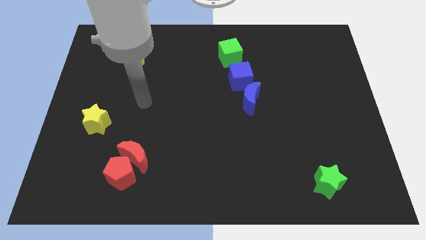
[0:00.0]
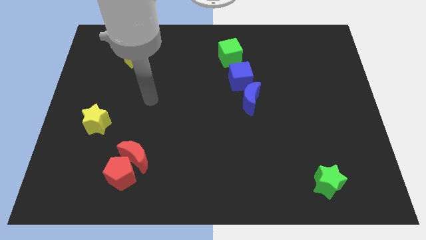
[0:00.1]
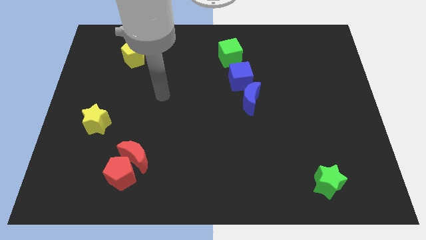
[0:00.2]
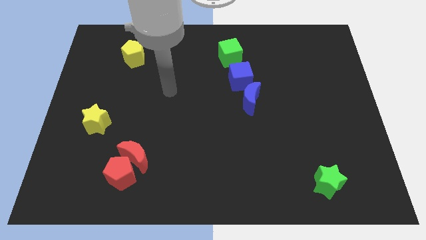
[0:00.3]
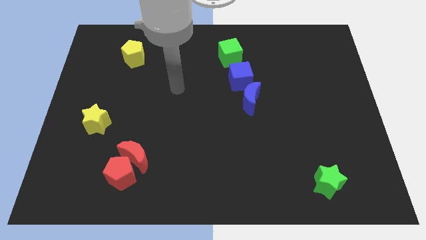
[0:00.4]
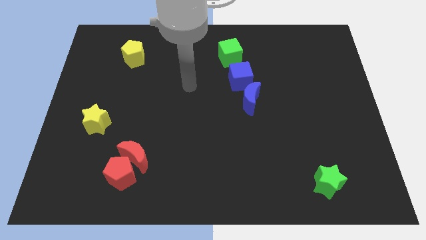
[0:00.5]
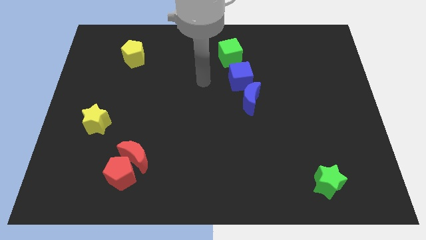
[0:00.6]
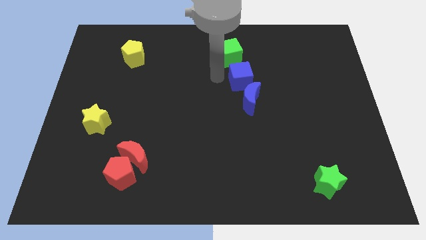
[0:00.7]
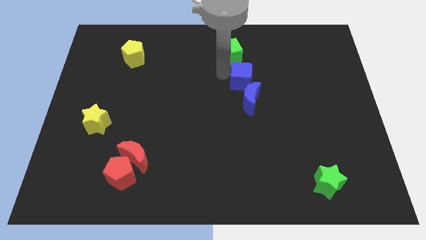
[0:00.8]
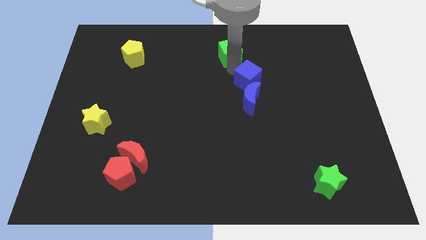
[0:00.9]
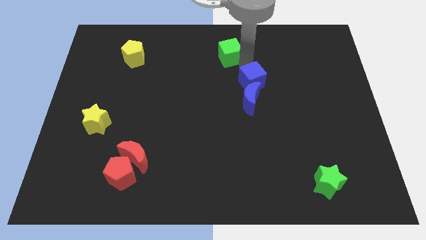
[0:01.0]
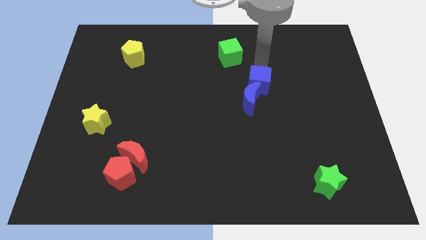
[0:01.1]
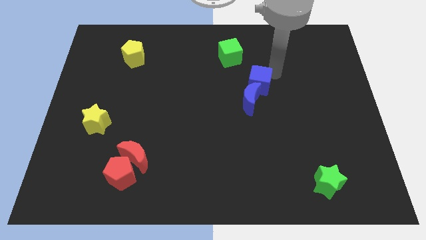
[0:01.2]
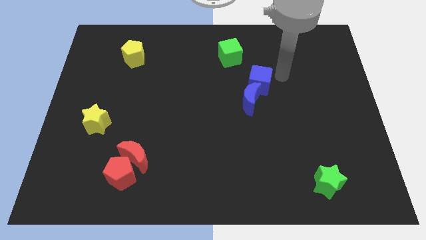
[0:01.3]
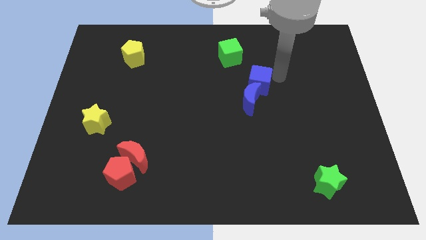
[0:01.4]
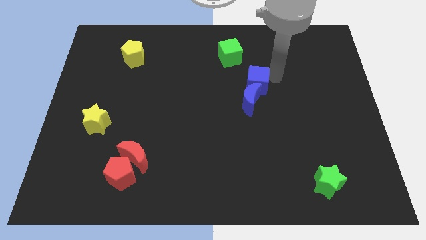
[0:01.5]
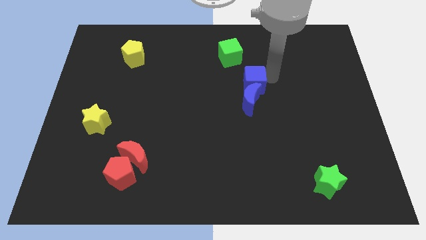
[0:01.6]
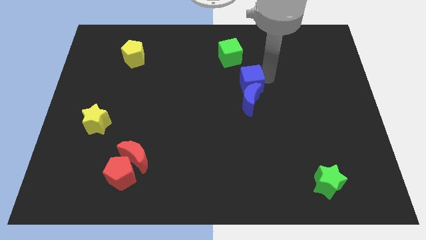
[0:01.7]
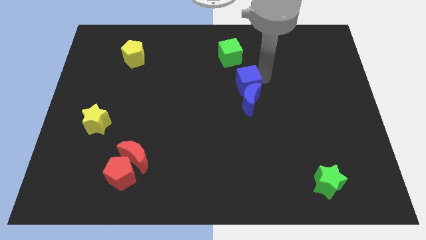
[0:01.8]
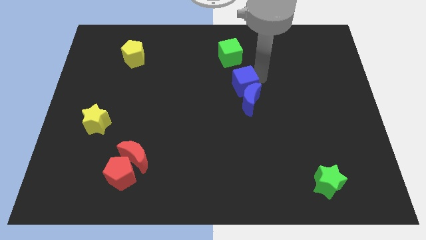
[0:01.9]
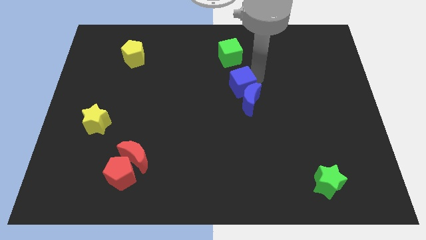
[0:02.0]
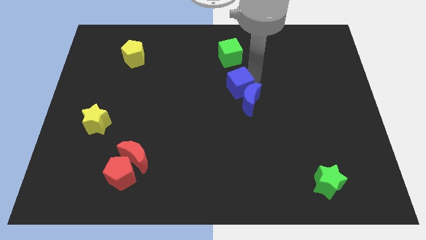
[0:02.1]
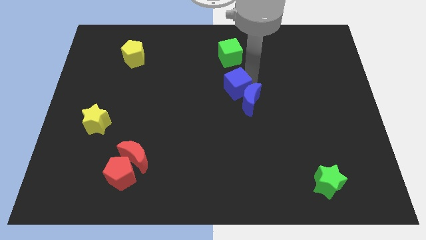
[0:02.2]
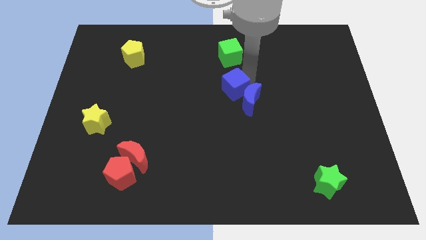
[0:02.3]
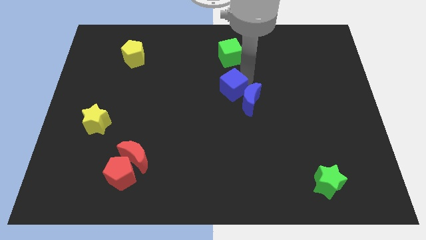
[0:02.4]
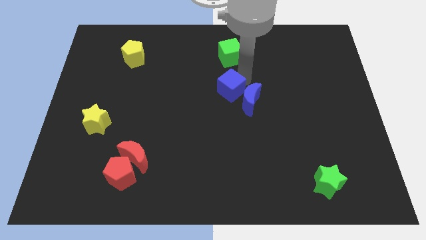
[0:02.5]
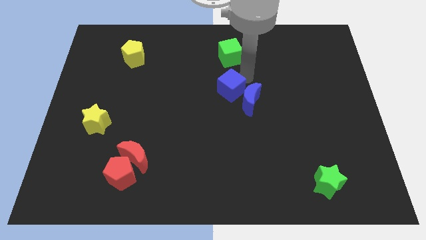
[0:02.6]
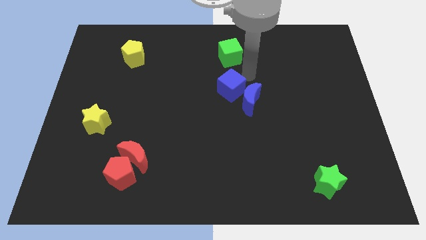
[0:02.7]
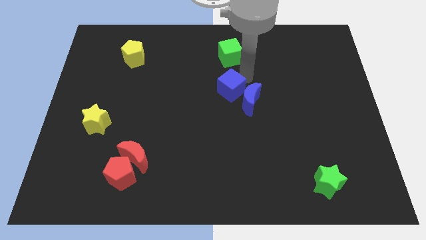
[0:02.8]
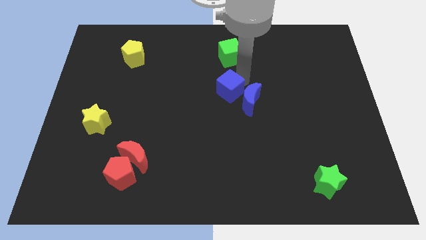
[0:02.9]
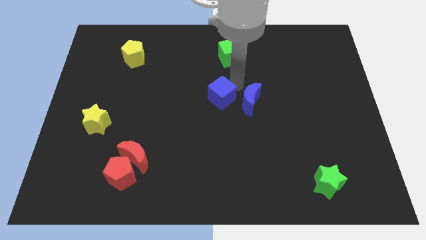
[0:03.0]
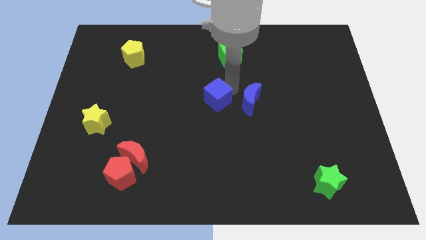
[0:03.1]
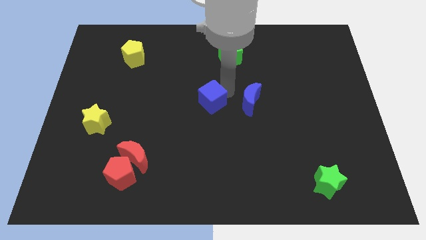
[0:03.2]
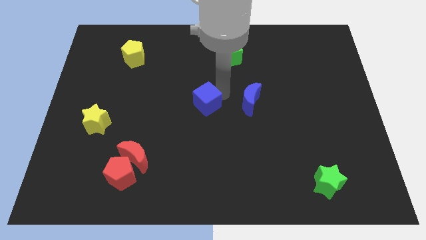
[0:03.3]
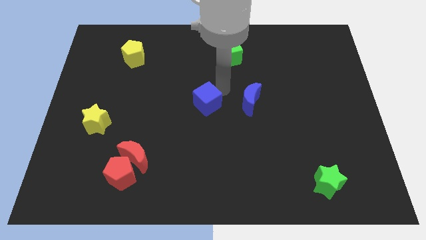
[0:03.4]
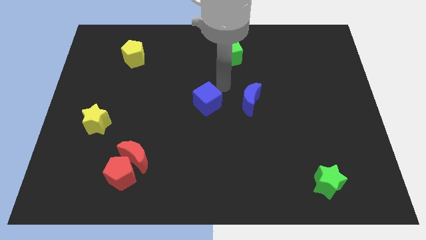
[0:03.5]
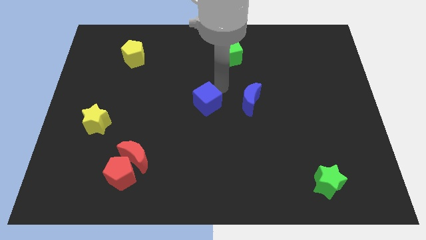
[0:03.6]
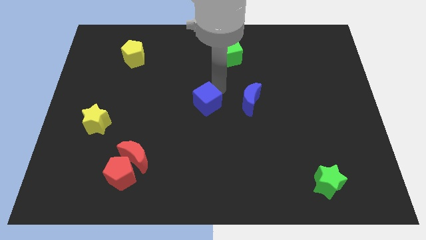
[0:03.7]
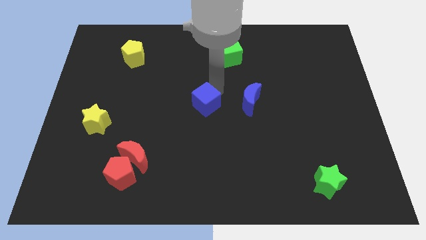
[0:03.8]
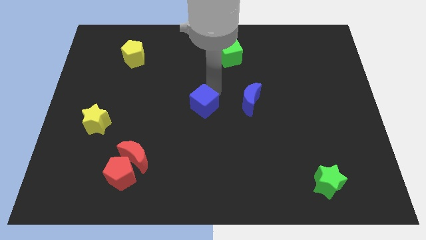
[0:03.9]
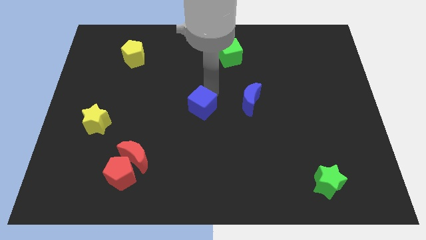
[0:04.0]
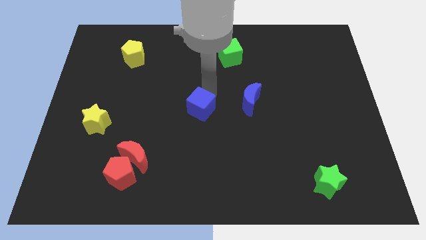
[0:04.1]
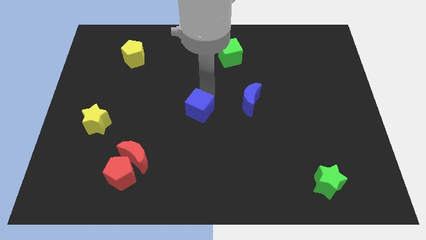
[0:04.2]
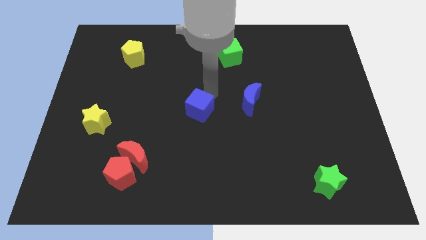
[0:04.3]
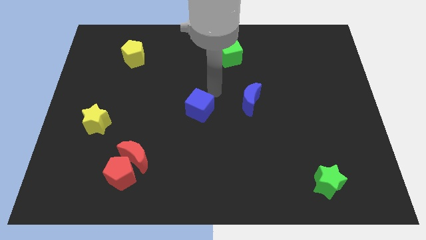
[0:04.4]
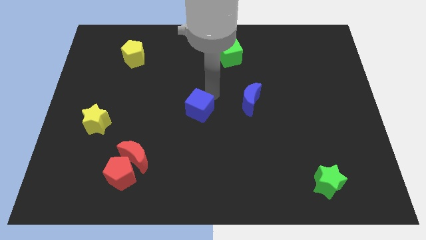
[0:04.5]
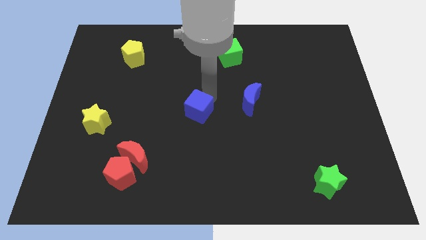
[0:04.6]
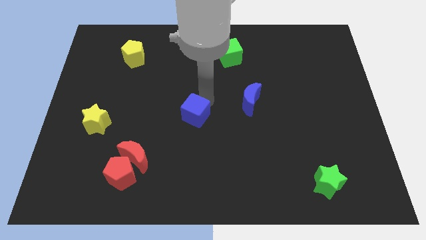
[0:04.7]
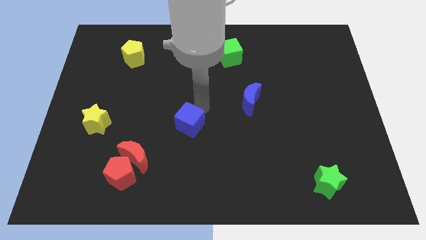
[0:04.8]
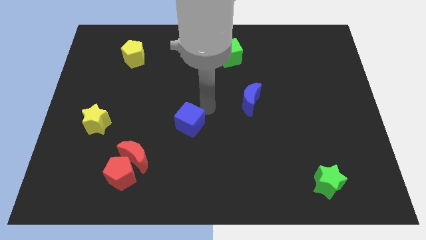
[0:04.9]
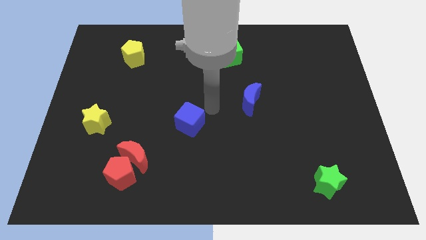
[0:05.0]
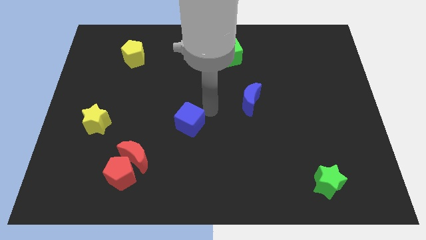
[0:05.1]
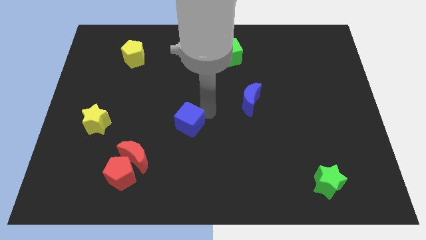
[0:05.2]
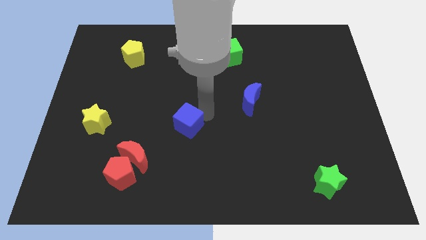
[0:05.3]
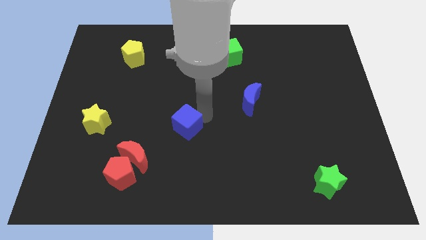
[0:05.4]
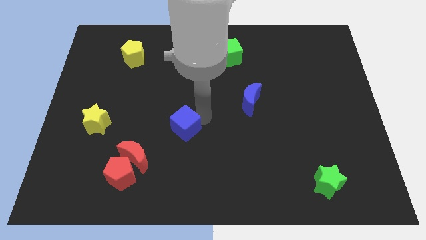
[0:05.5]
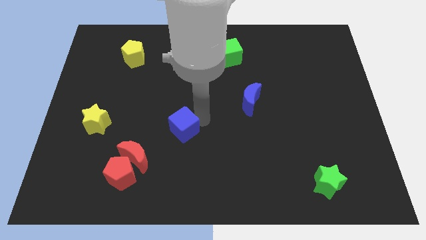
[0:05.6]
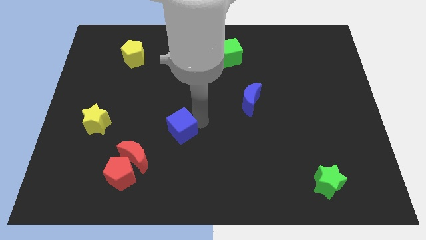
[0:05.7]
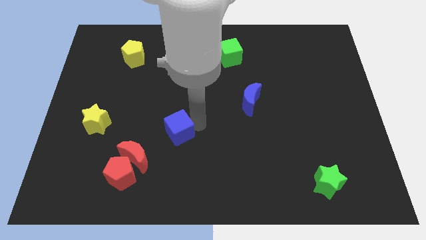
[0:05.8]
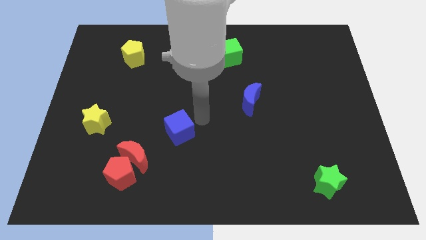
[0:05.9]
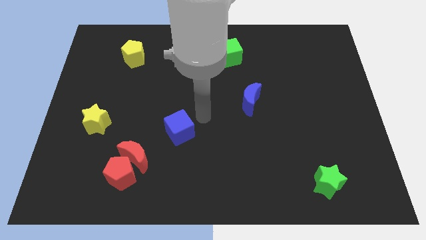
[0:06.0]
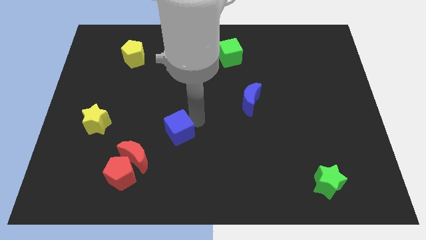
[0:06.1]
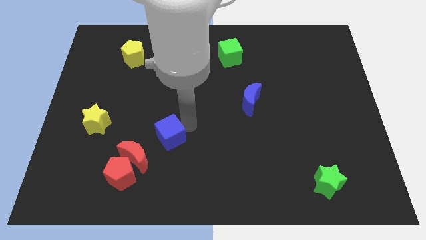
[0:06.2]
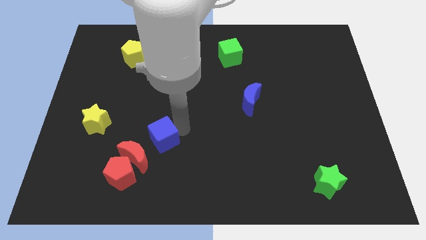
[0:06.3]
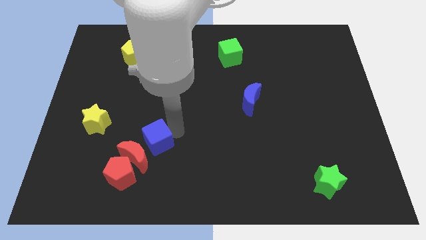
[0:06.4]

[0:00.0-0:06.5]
put the blue cube towards the red moon

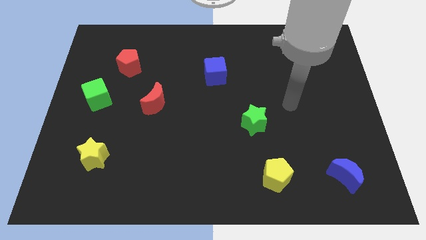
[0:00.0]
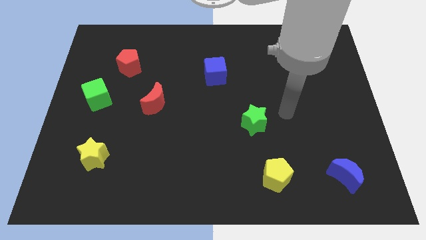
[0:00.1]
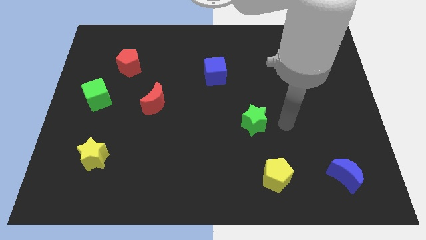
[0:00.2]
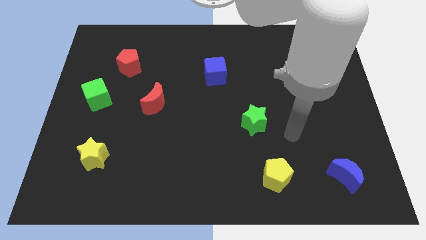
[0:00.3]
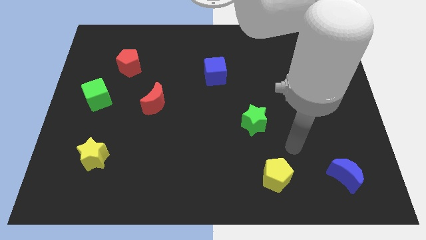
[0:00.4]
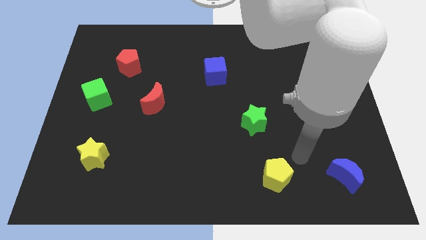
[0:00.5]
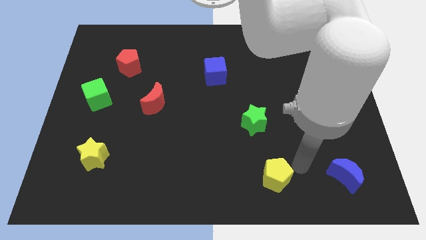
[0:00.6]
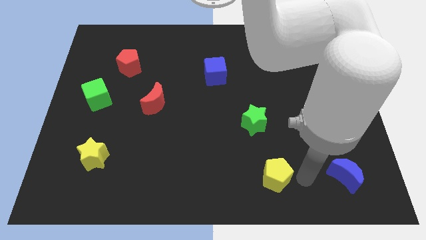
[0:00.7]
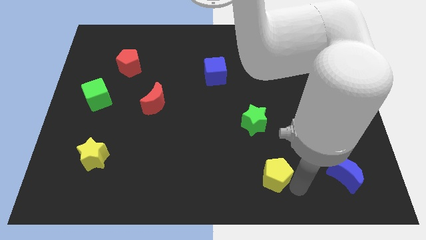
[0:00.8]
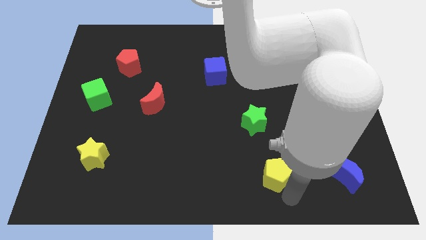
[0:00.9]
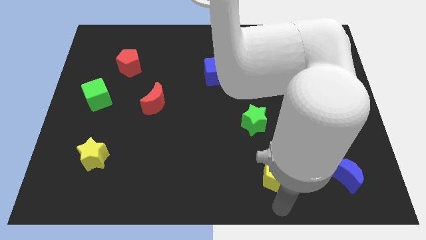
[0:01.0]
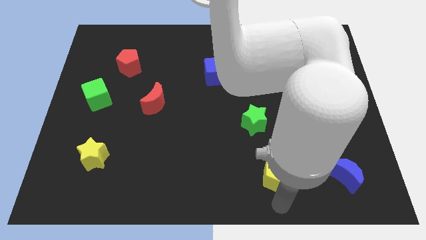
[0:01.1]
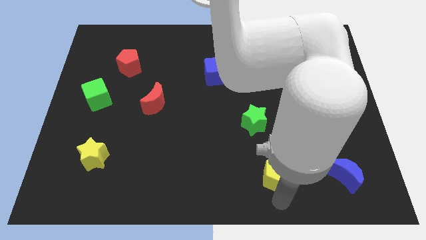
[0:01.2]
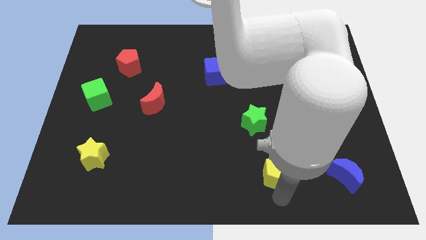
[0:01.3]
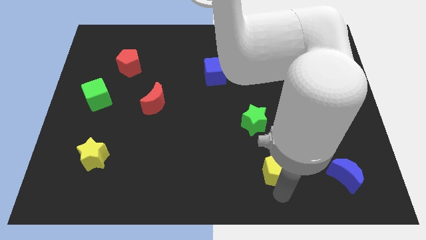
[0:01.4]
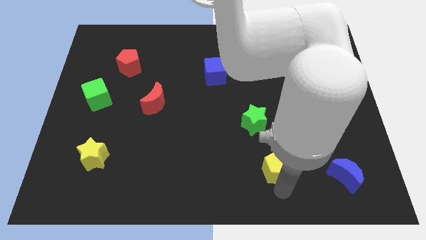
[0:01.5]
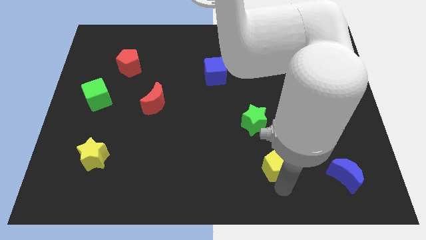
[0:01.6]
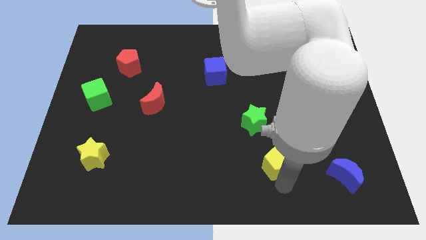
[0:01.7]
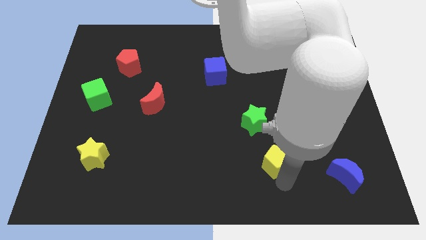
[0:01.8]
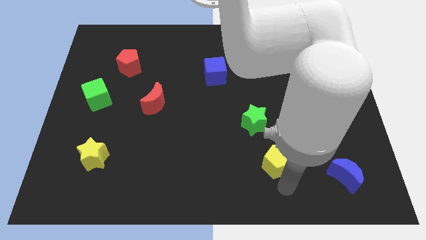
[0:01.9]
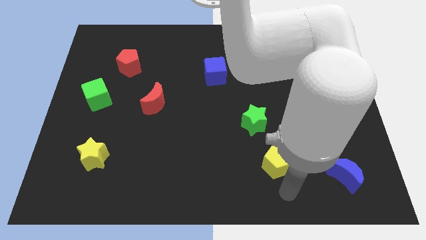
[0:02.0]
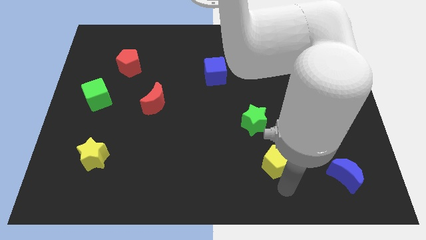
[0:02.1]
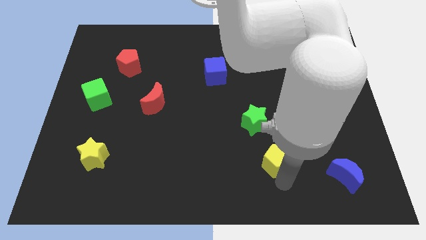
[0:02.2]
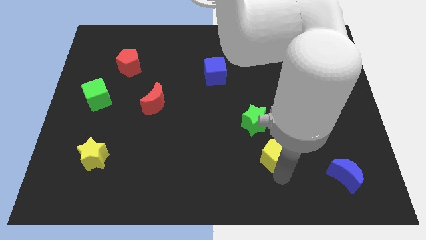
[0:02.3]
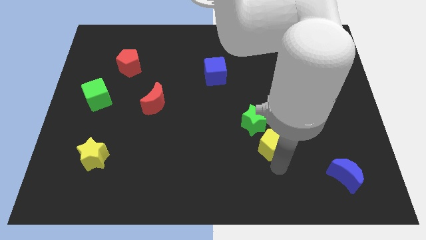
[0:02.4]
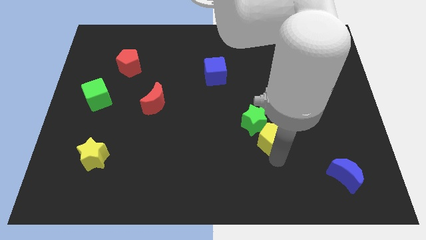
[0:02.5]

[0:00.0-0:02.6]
put the yellow pentagon close to the green star
